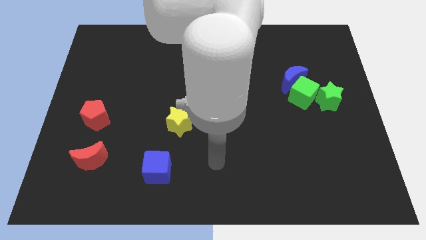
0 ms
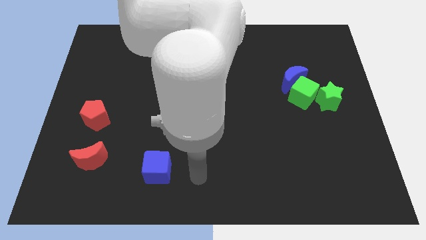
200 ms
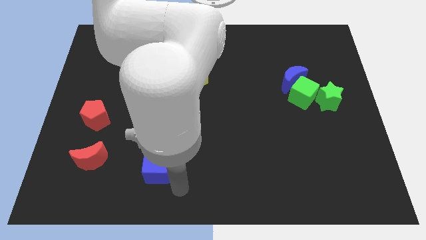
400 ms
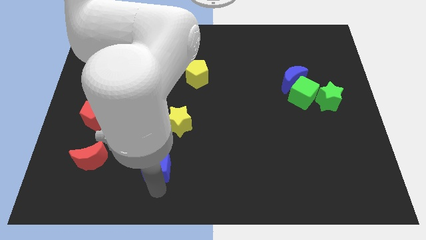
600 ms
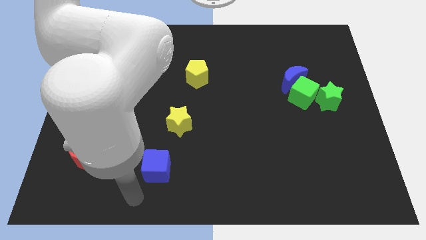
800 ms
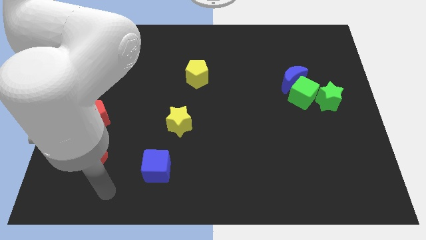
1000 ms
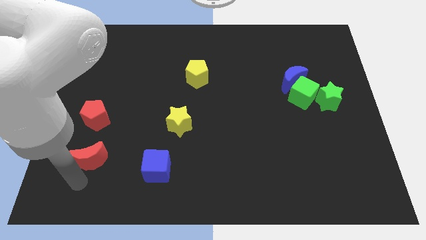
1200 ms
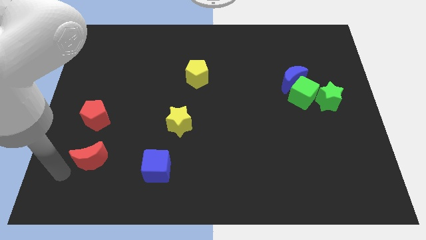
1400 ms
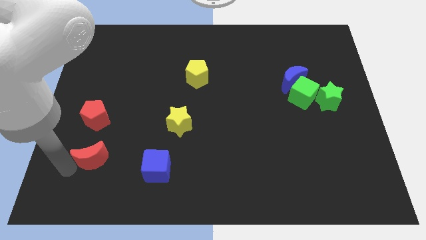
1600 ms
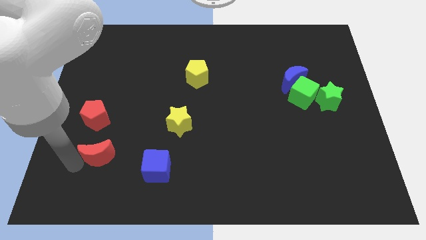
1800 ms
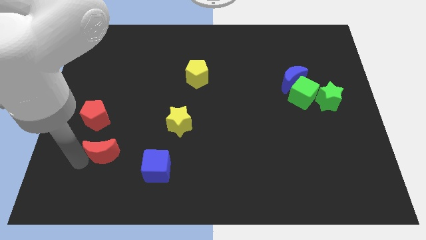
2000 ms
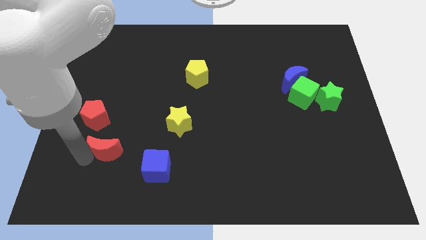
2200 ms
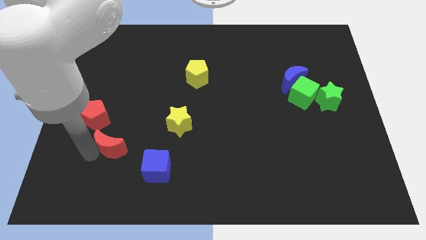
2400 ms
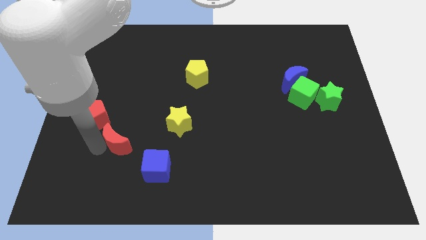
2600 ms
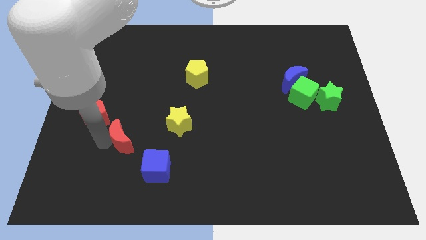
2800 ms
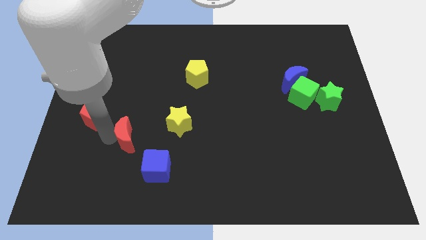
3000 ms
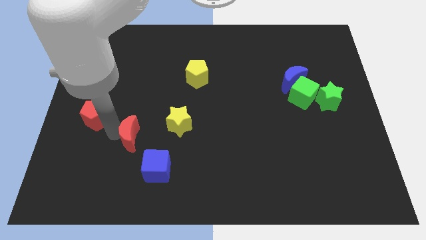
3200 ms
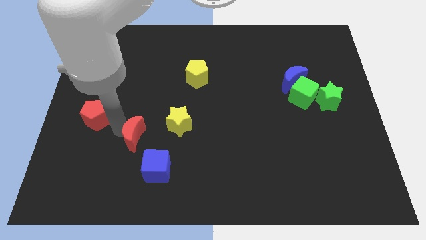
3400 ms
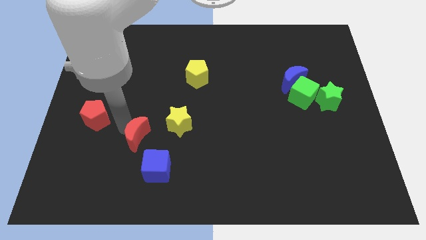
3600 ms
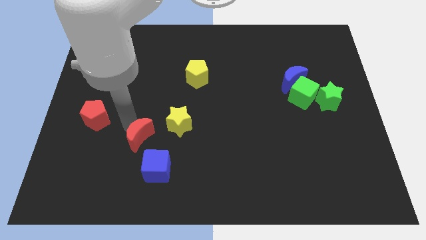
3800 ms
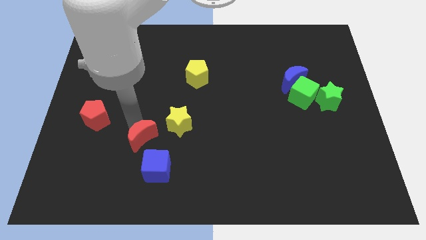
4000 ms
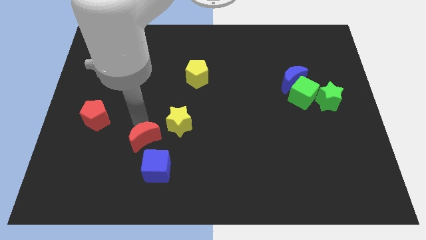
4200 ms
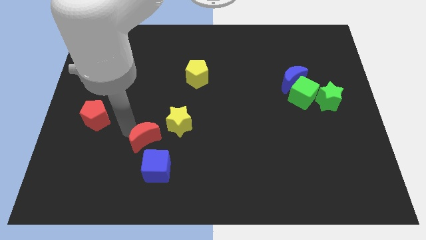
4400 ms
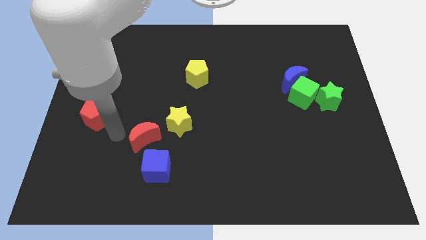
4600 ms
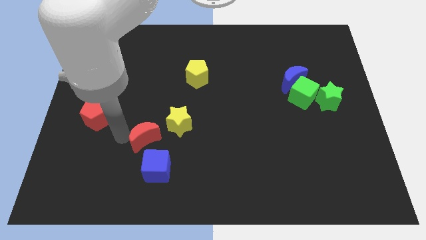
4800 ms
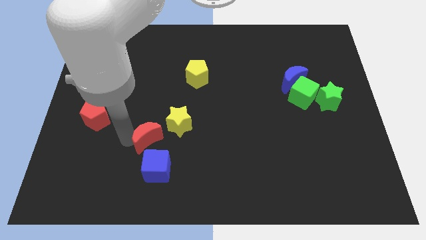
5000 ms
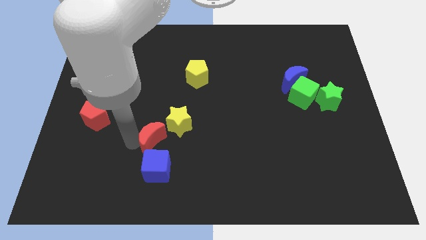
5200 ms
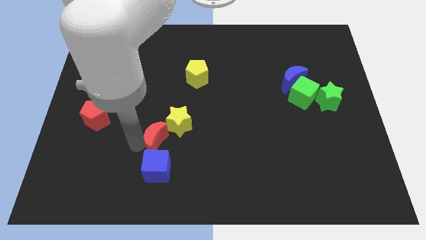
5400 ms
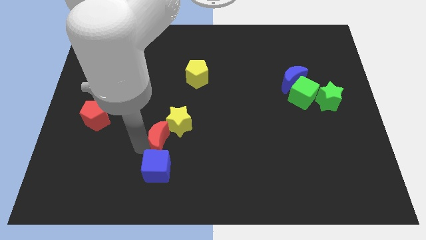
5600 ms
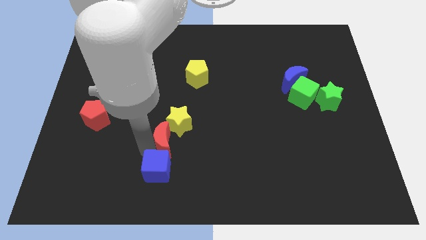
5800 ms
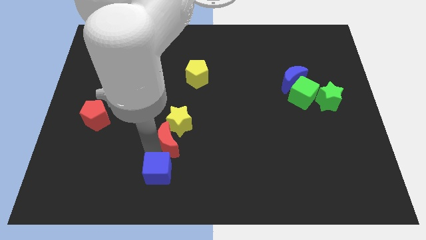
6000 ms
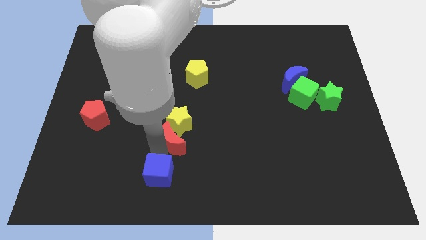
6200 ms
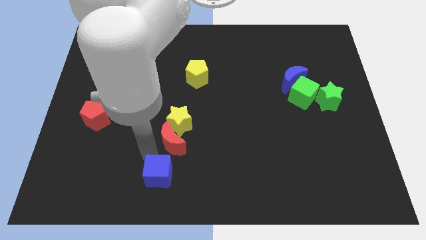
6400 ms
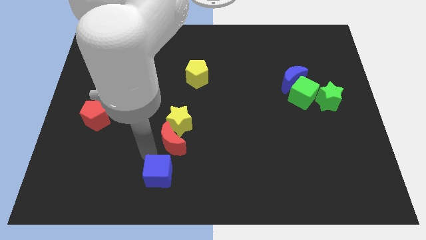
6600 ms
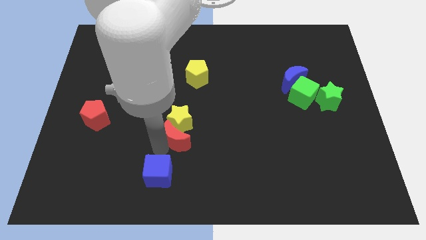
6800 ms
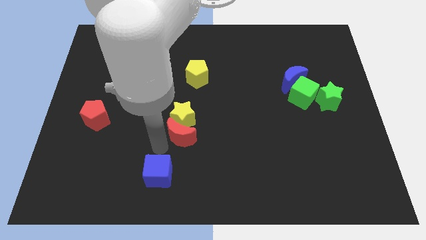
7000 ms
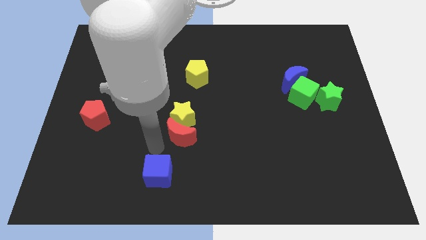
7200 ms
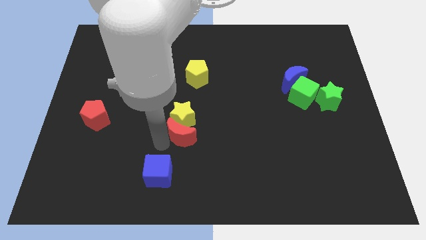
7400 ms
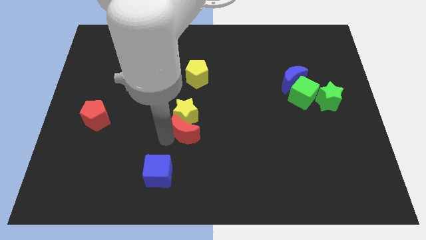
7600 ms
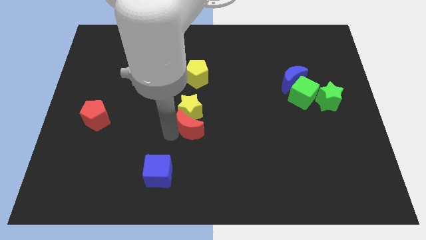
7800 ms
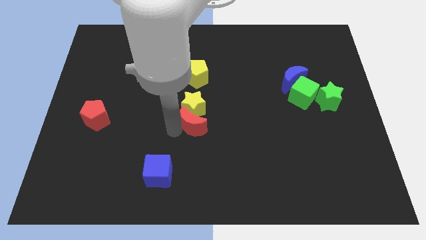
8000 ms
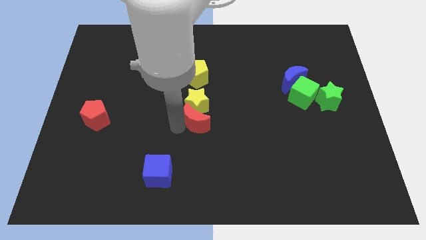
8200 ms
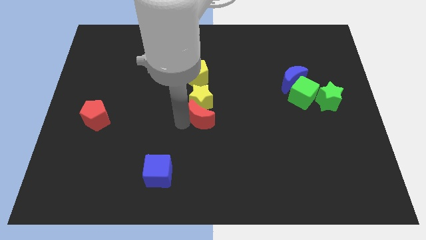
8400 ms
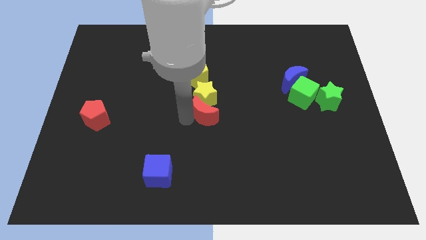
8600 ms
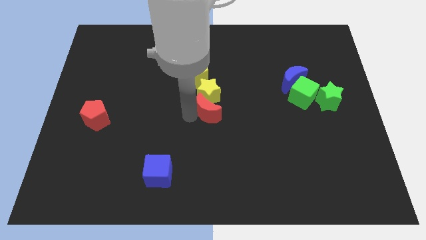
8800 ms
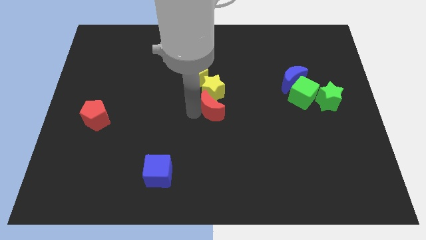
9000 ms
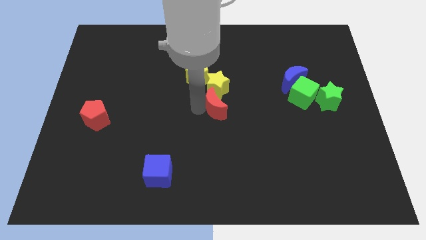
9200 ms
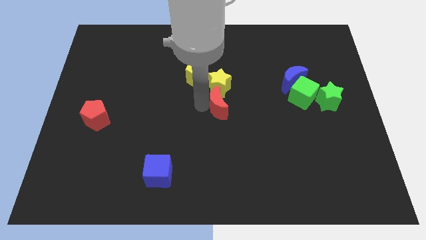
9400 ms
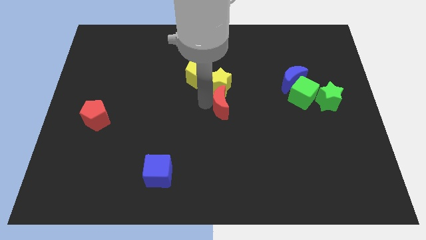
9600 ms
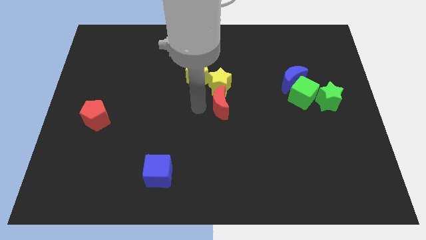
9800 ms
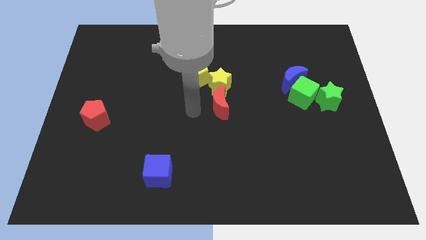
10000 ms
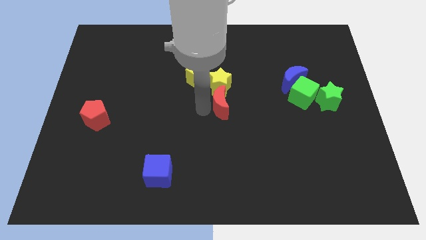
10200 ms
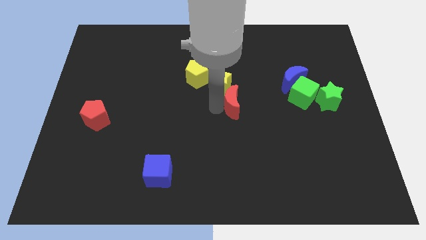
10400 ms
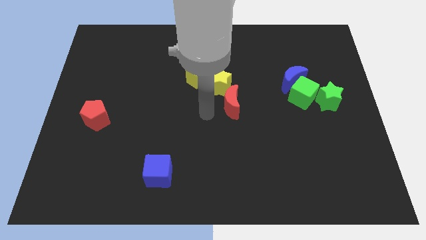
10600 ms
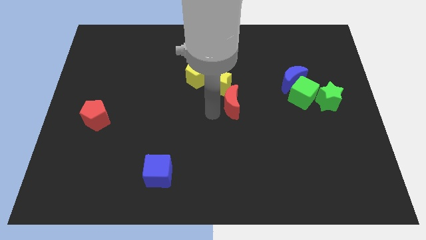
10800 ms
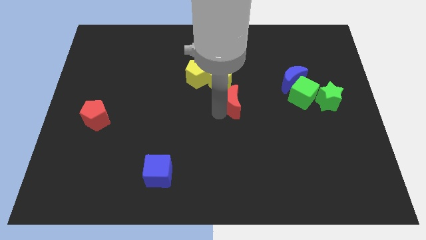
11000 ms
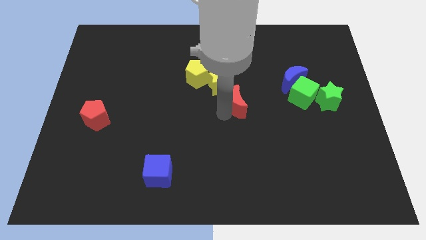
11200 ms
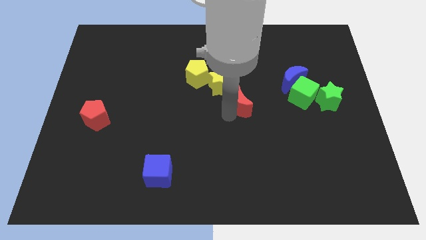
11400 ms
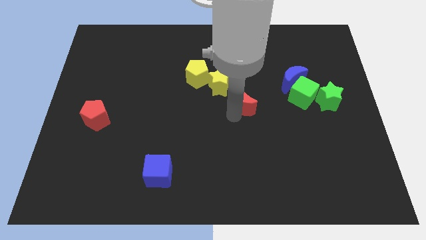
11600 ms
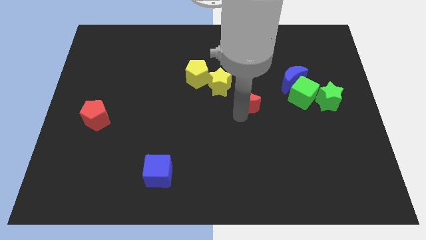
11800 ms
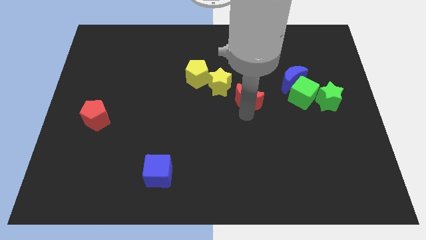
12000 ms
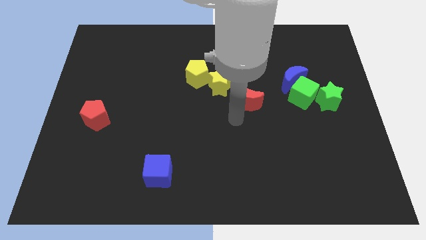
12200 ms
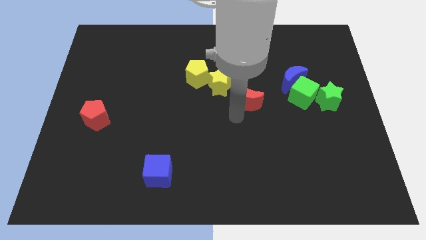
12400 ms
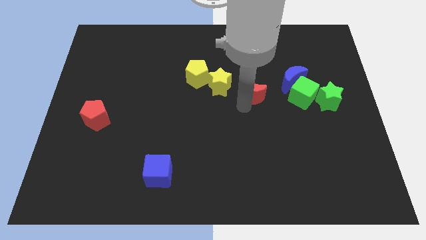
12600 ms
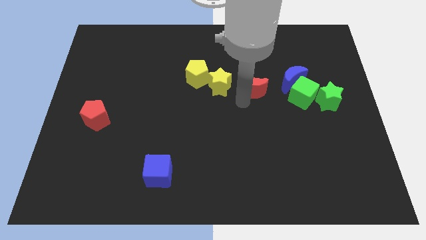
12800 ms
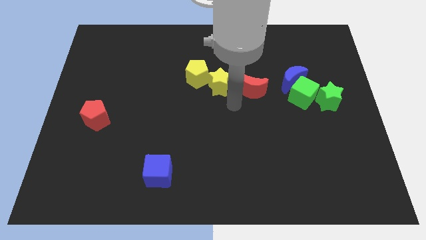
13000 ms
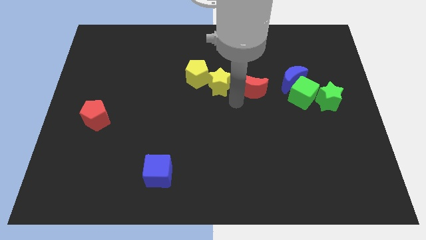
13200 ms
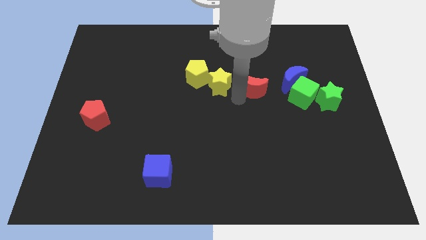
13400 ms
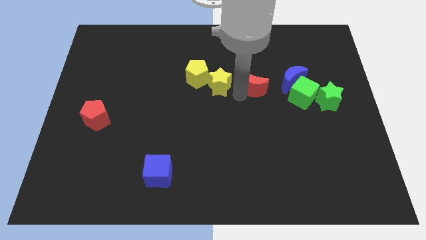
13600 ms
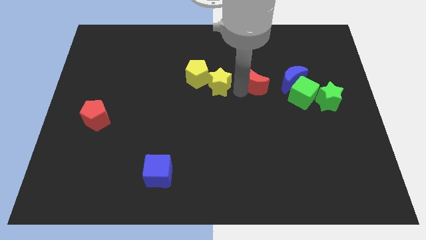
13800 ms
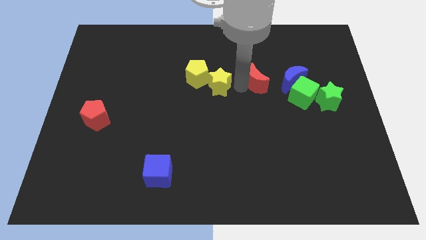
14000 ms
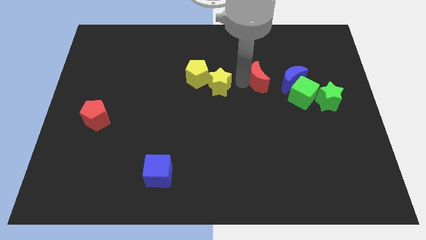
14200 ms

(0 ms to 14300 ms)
push the red moon to the top left of the green cube
